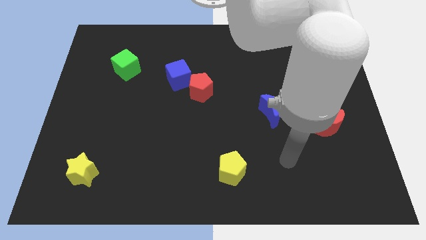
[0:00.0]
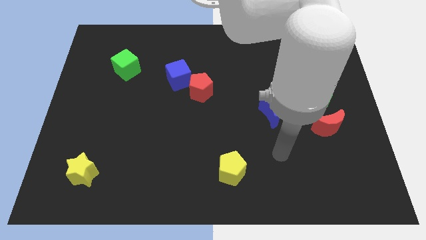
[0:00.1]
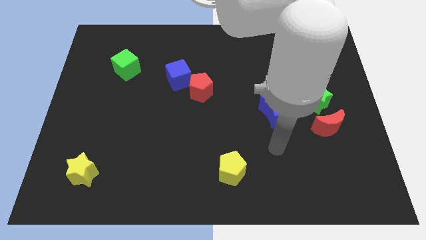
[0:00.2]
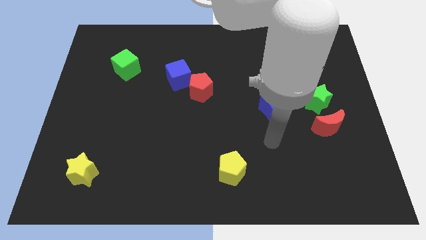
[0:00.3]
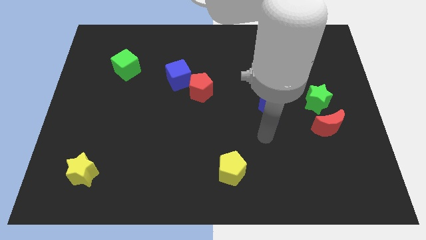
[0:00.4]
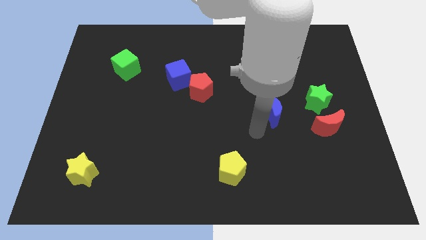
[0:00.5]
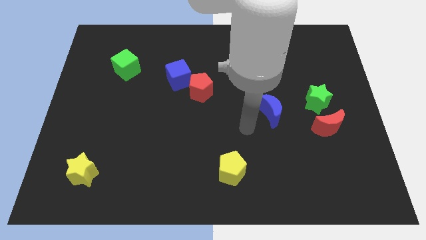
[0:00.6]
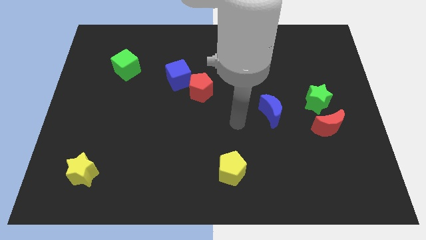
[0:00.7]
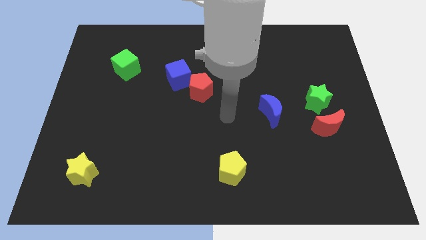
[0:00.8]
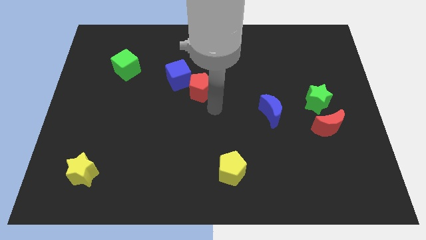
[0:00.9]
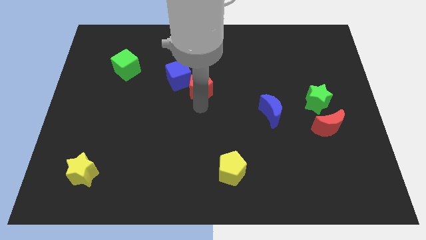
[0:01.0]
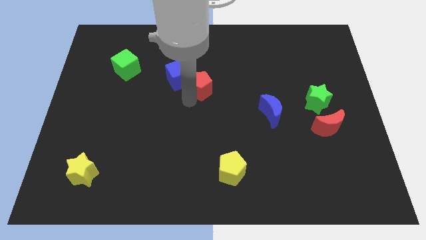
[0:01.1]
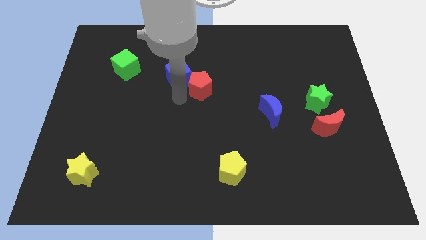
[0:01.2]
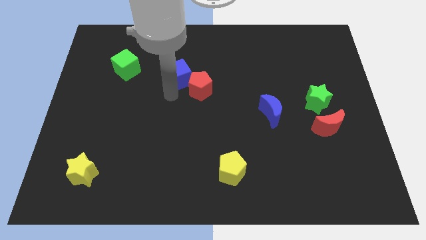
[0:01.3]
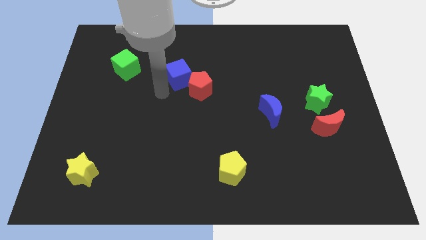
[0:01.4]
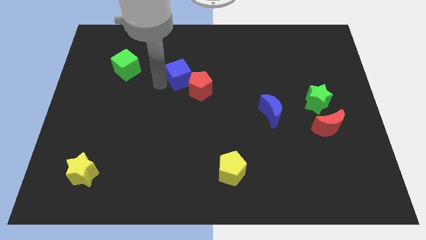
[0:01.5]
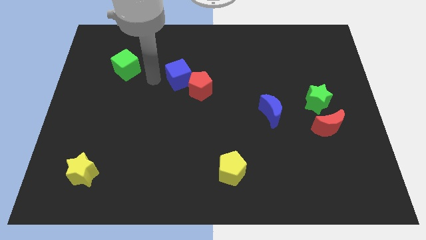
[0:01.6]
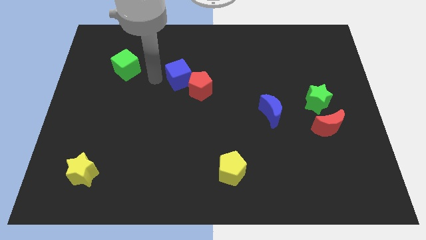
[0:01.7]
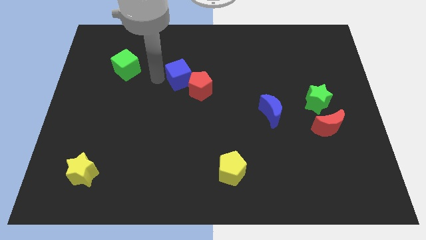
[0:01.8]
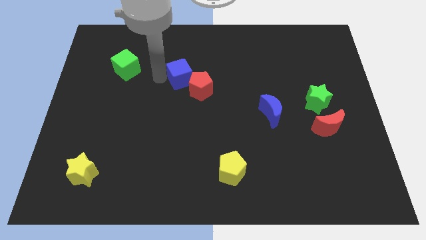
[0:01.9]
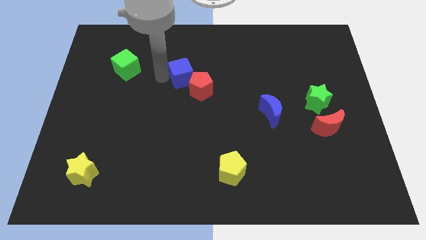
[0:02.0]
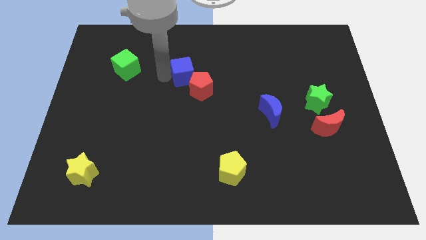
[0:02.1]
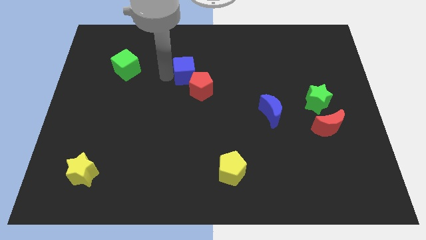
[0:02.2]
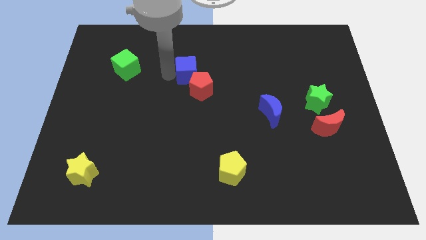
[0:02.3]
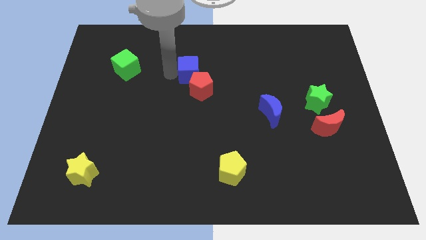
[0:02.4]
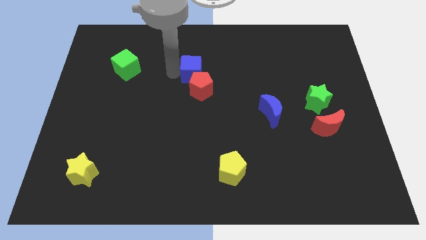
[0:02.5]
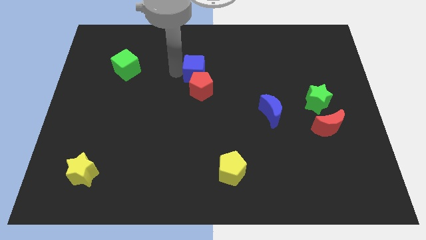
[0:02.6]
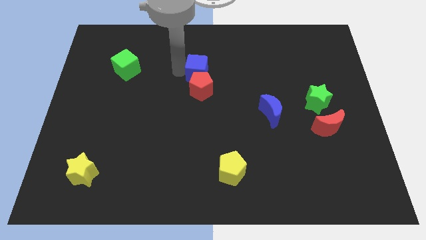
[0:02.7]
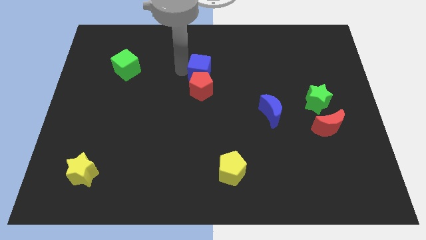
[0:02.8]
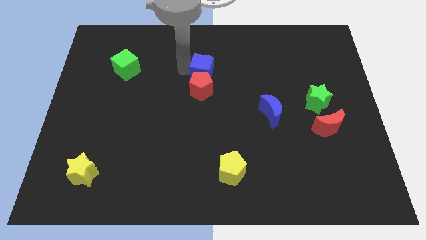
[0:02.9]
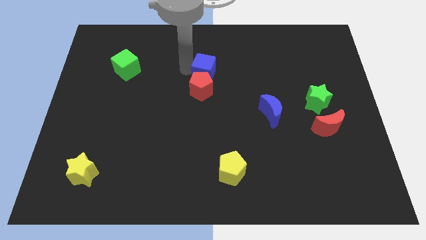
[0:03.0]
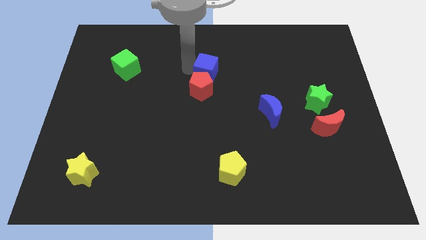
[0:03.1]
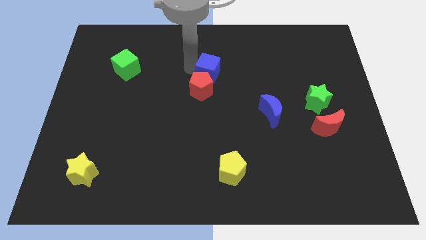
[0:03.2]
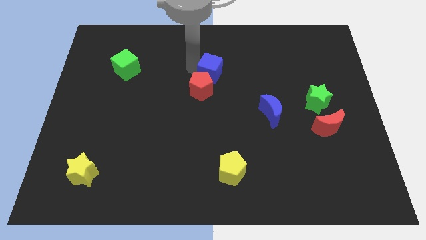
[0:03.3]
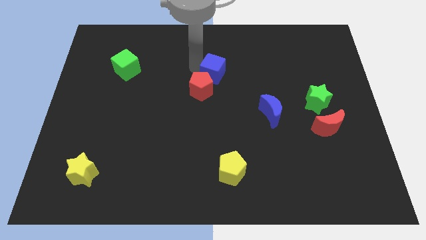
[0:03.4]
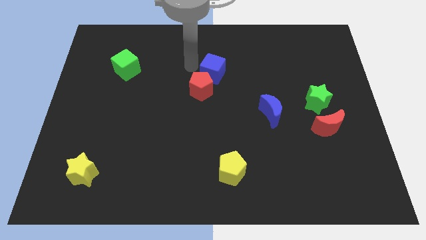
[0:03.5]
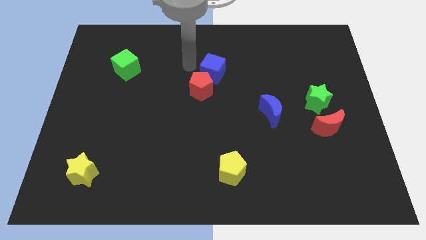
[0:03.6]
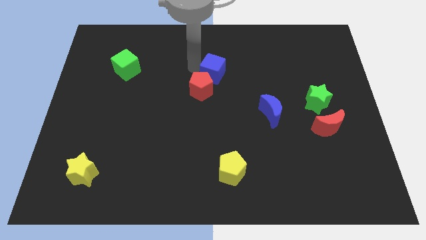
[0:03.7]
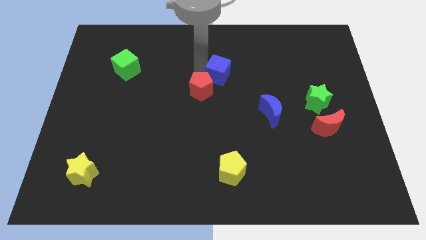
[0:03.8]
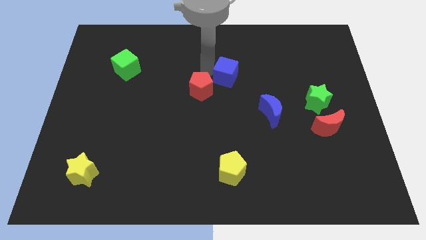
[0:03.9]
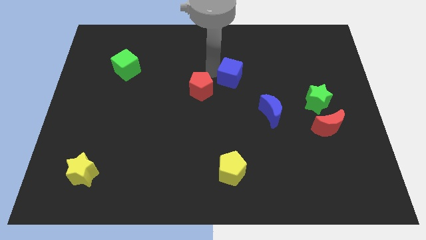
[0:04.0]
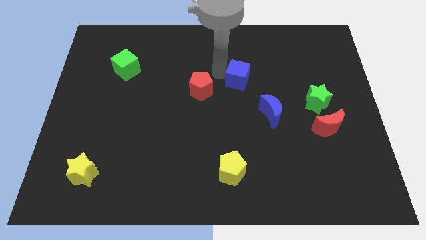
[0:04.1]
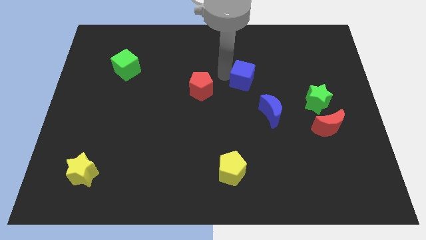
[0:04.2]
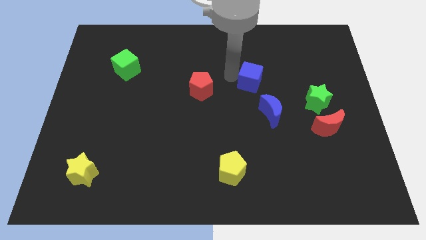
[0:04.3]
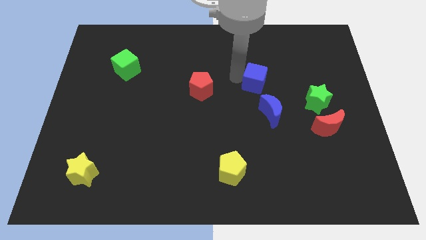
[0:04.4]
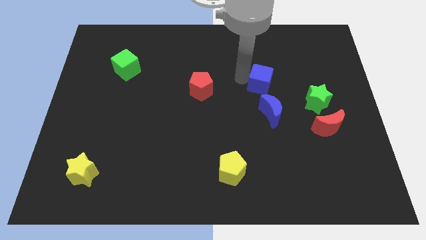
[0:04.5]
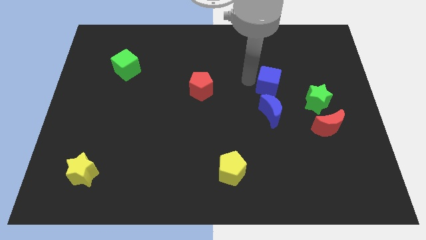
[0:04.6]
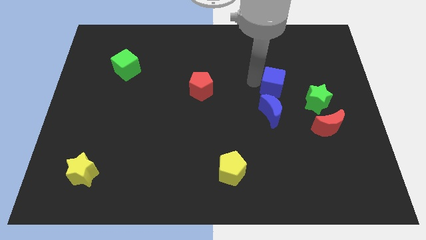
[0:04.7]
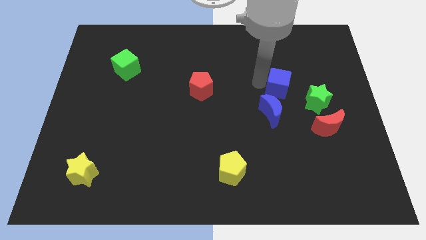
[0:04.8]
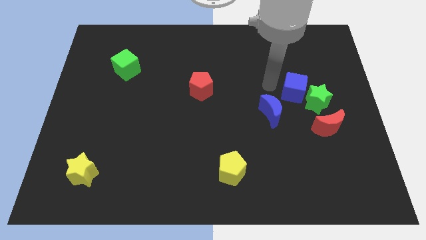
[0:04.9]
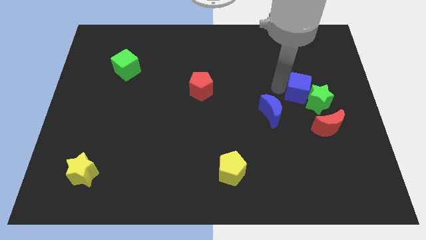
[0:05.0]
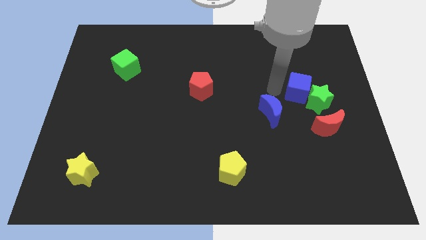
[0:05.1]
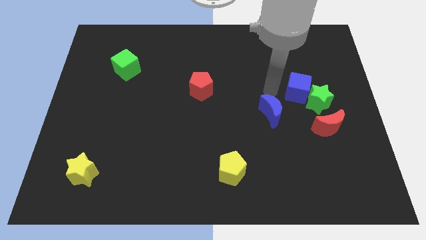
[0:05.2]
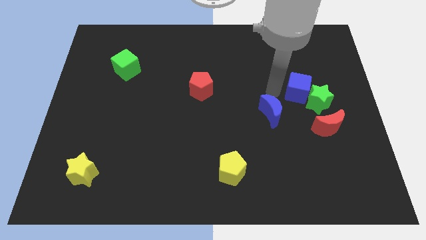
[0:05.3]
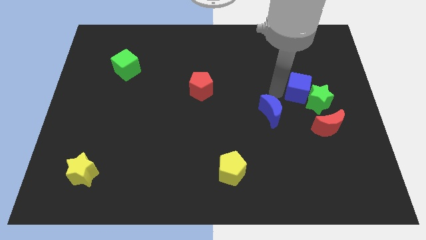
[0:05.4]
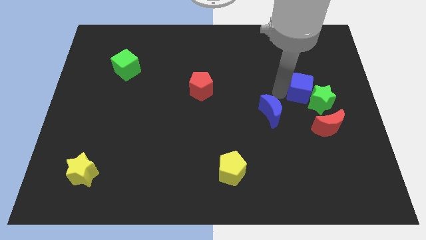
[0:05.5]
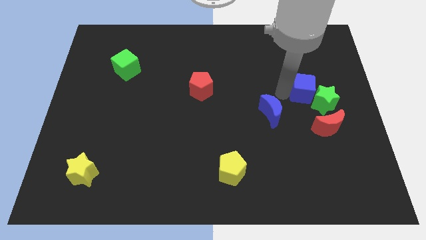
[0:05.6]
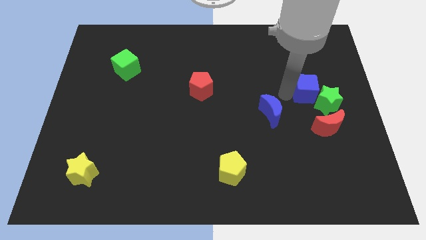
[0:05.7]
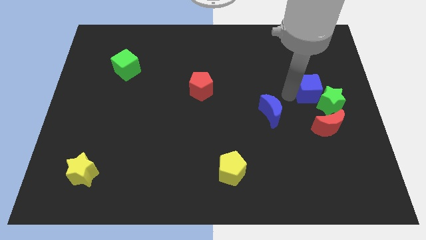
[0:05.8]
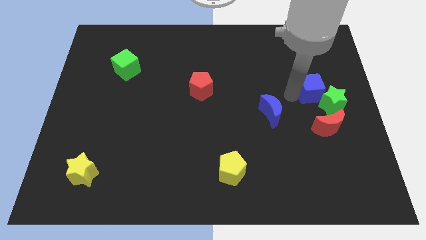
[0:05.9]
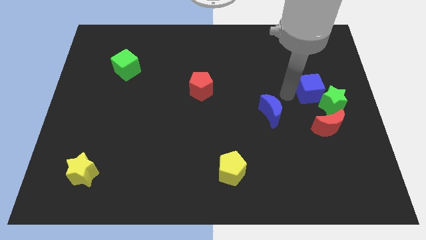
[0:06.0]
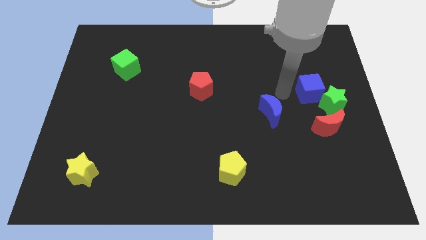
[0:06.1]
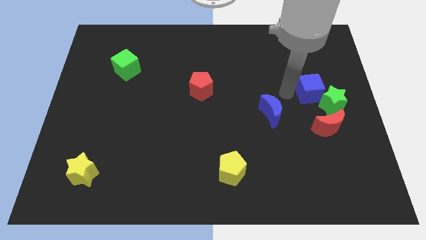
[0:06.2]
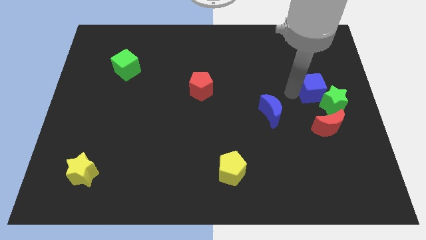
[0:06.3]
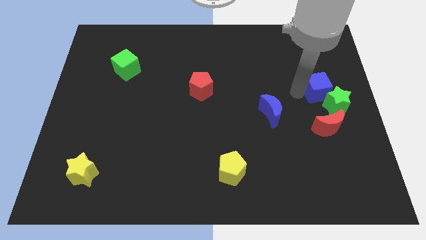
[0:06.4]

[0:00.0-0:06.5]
slide the blue cube to the center right

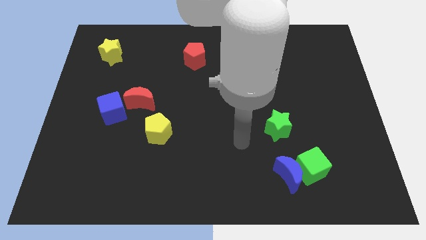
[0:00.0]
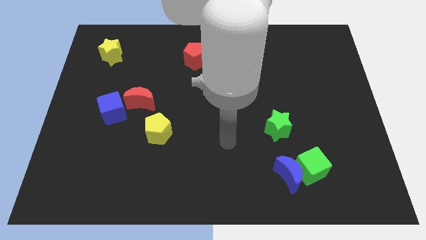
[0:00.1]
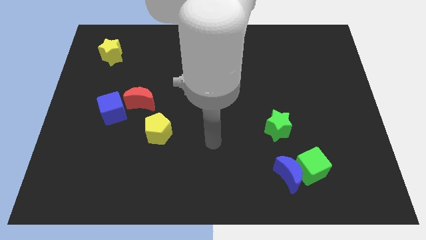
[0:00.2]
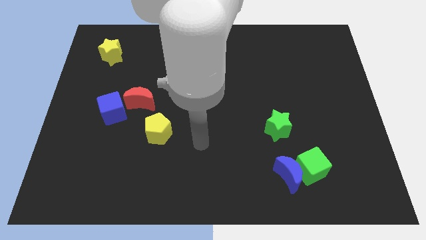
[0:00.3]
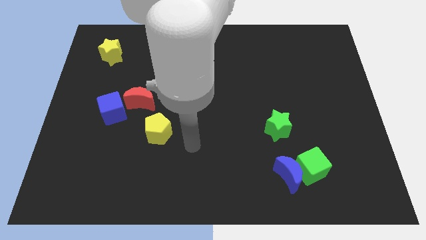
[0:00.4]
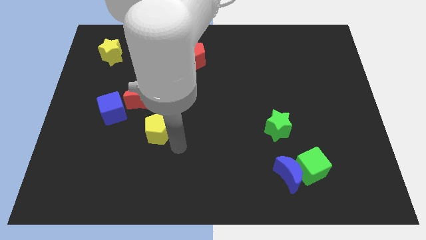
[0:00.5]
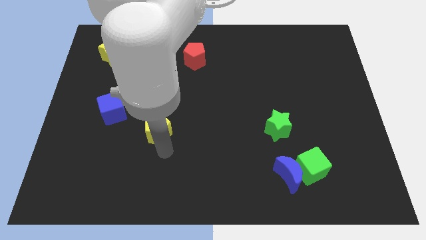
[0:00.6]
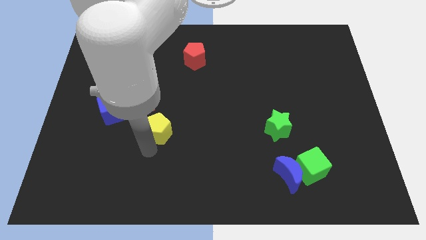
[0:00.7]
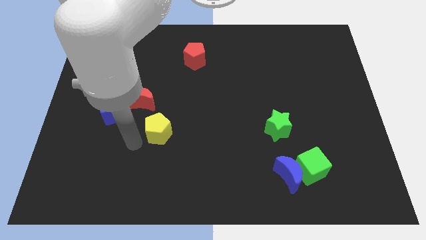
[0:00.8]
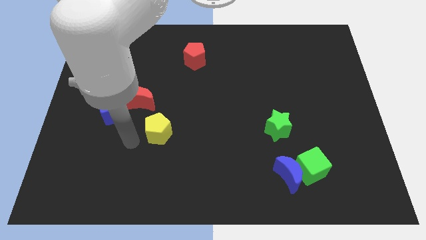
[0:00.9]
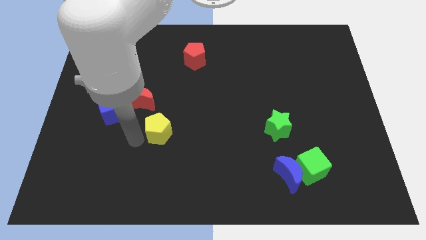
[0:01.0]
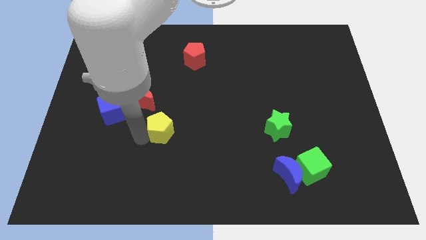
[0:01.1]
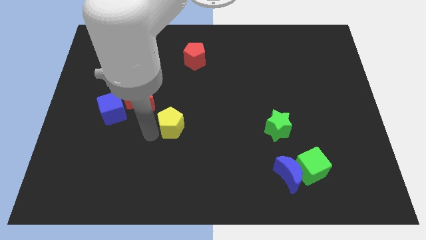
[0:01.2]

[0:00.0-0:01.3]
put the yellow pentagon to the center
